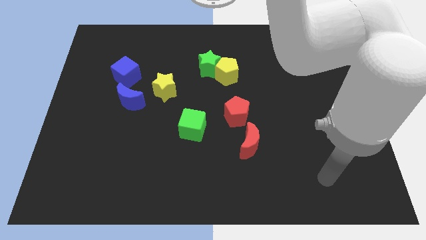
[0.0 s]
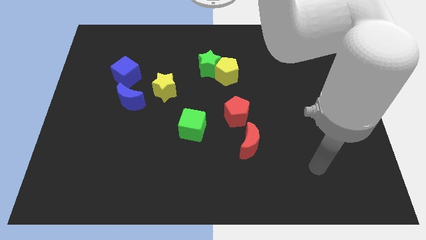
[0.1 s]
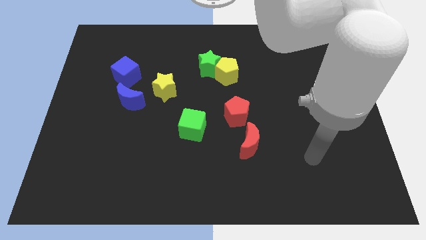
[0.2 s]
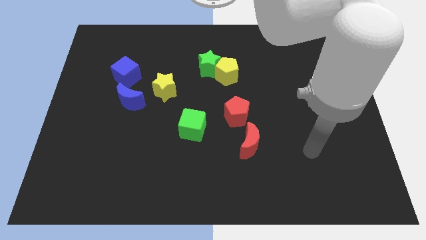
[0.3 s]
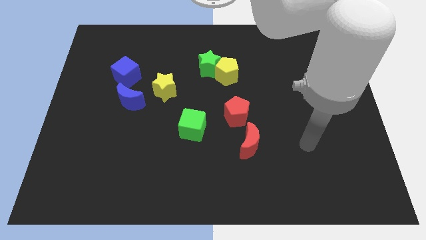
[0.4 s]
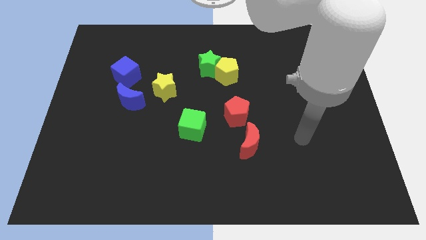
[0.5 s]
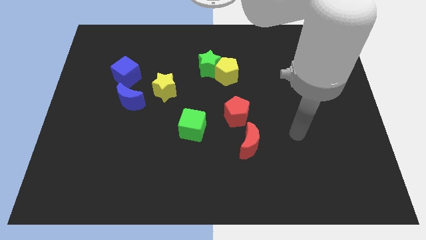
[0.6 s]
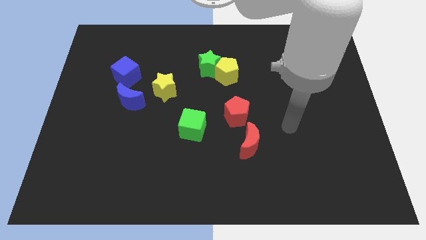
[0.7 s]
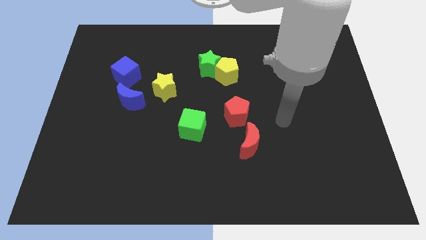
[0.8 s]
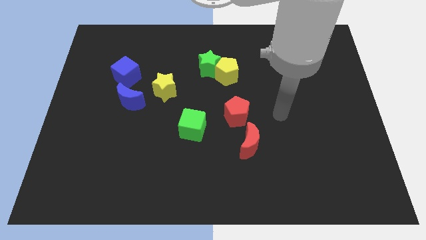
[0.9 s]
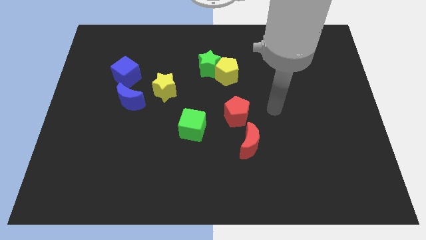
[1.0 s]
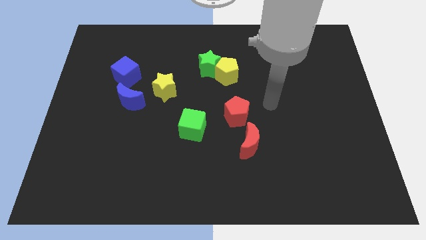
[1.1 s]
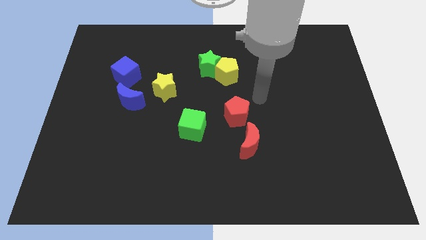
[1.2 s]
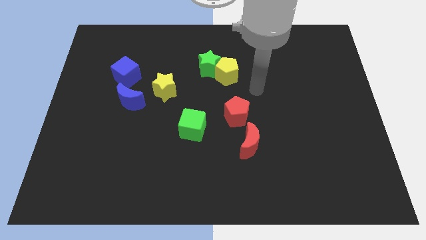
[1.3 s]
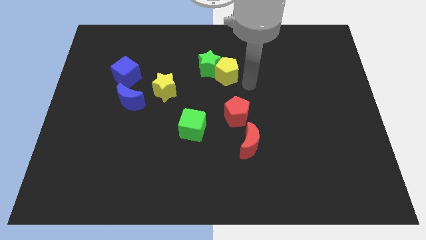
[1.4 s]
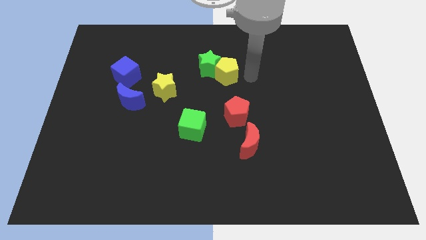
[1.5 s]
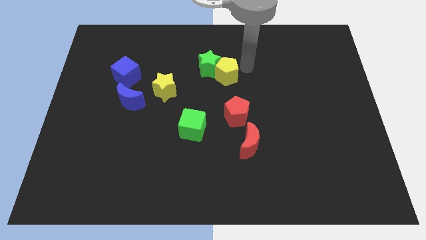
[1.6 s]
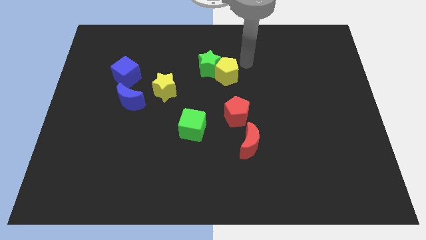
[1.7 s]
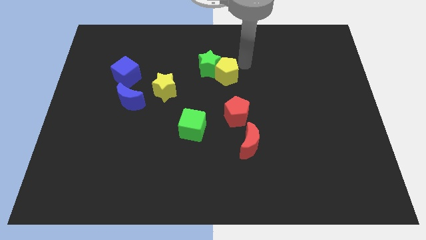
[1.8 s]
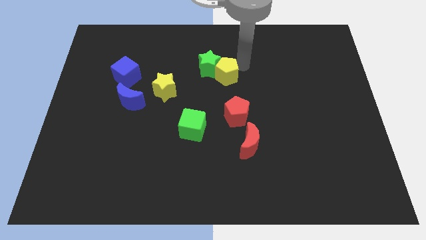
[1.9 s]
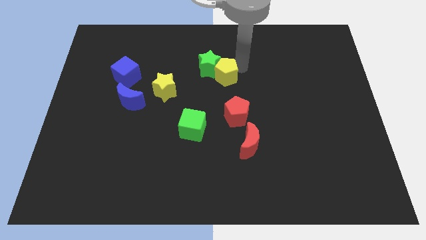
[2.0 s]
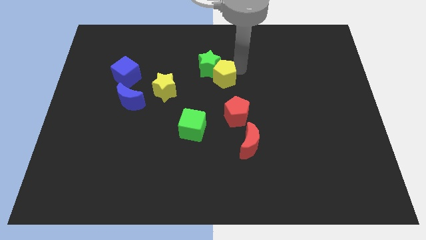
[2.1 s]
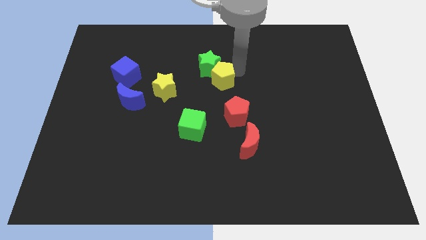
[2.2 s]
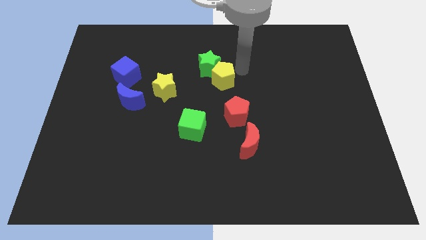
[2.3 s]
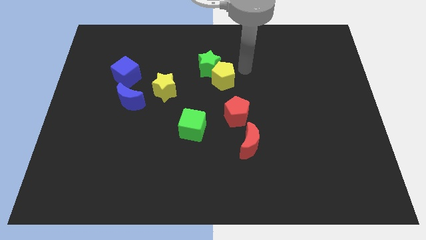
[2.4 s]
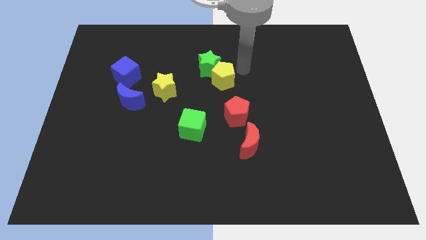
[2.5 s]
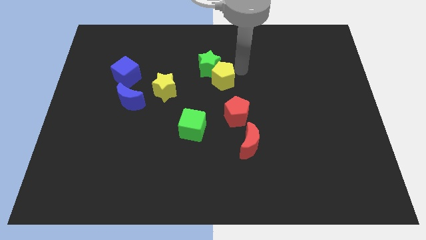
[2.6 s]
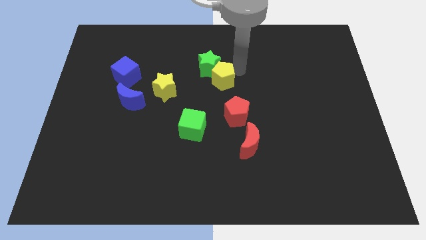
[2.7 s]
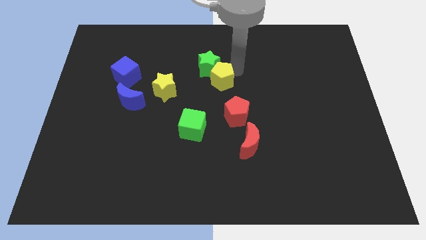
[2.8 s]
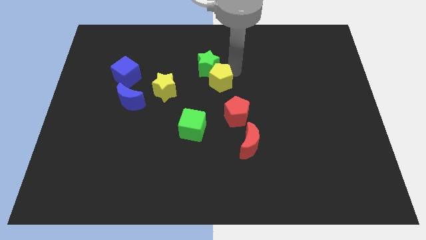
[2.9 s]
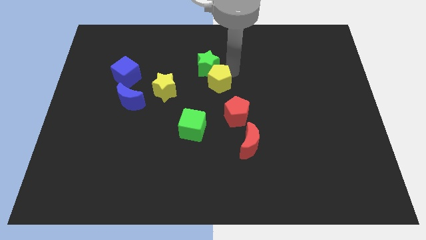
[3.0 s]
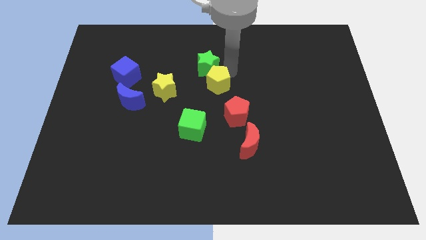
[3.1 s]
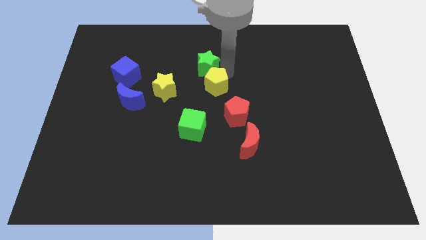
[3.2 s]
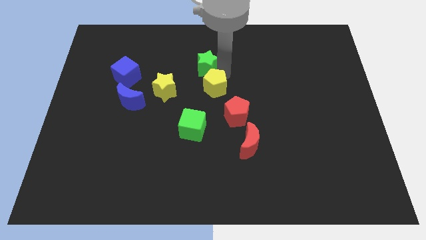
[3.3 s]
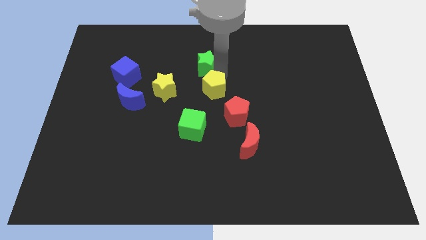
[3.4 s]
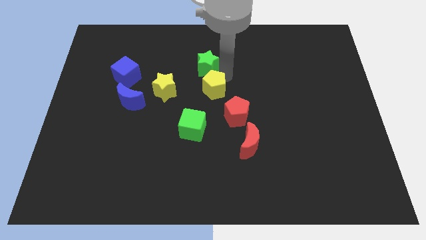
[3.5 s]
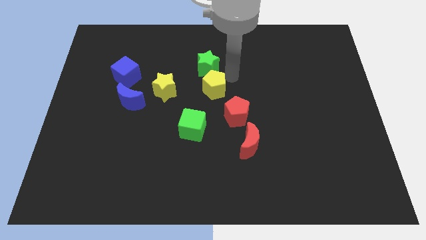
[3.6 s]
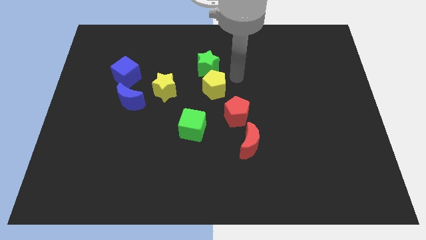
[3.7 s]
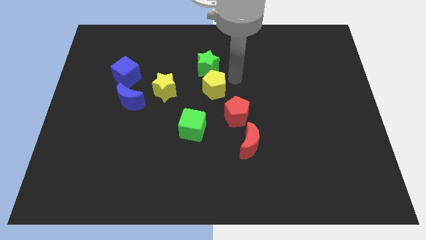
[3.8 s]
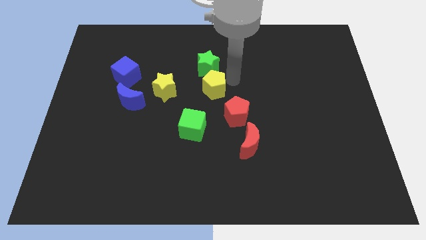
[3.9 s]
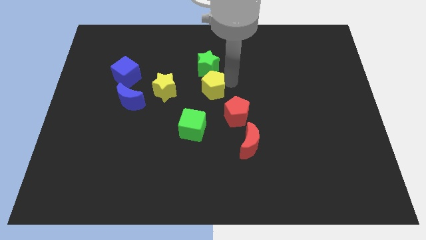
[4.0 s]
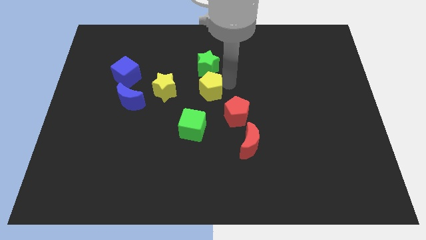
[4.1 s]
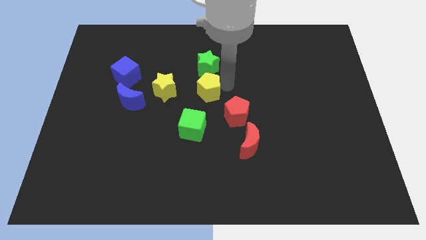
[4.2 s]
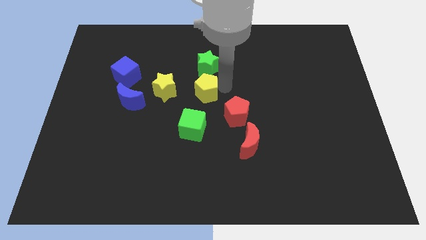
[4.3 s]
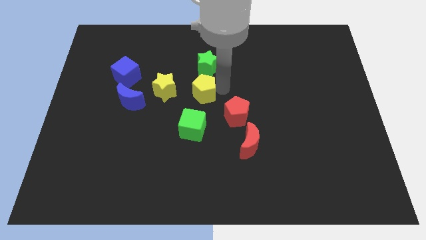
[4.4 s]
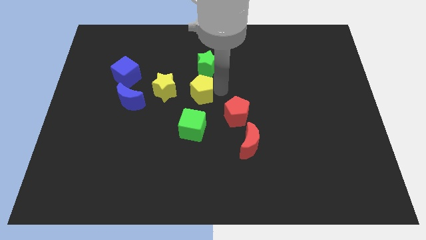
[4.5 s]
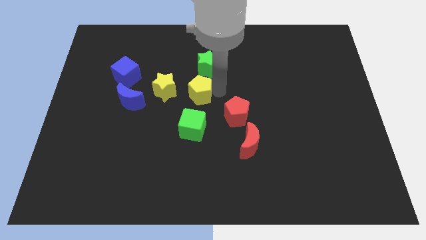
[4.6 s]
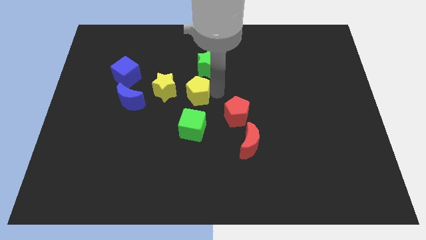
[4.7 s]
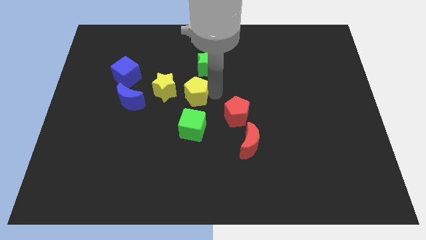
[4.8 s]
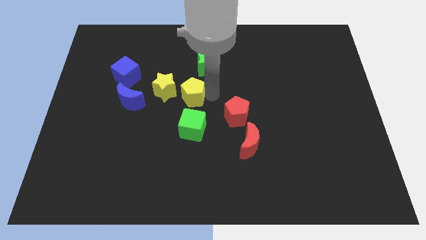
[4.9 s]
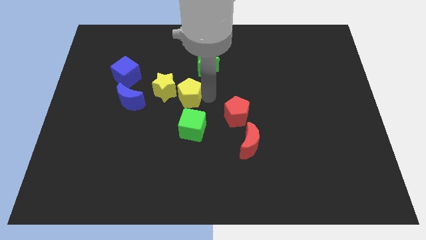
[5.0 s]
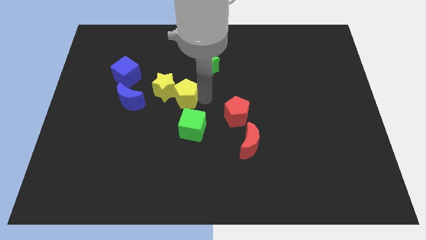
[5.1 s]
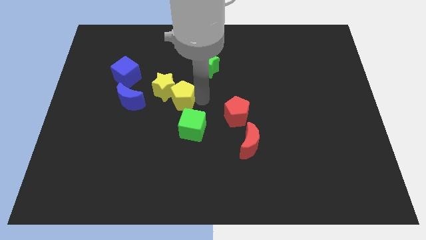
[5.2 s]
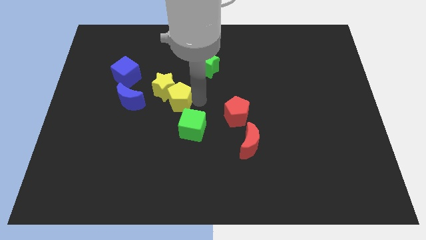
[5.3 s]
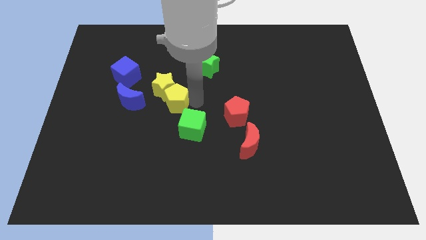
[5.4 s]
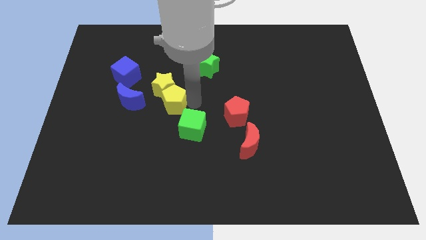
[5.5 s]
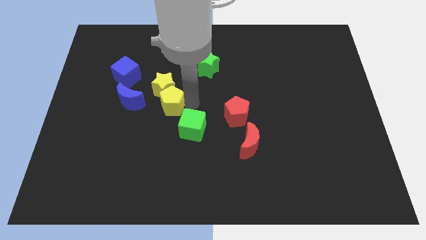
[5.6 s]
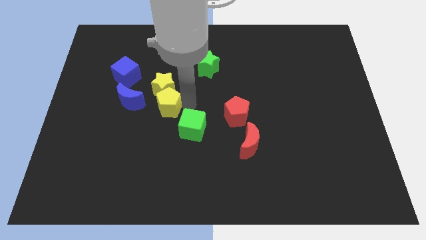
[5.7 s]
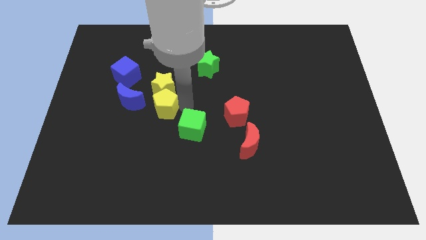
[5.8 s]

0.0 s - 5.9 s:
slide the yellow pentagon diagonally down and to the right of the blue moon

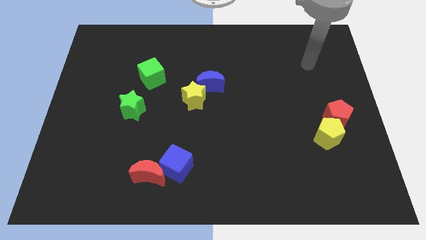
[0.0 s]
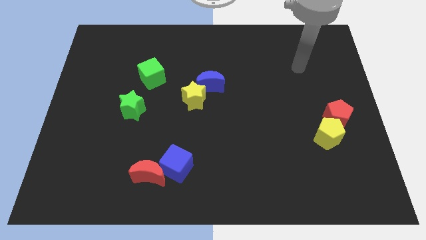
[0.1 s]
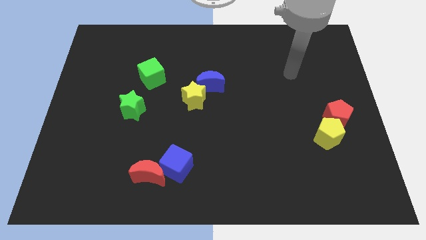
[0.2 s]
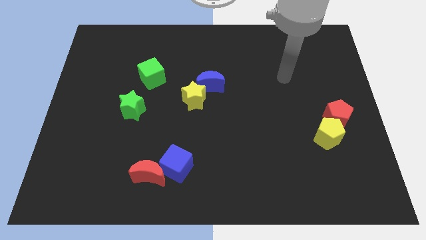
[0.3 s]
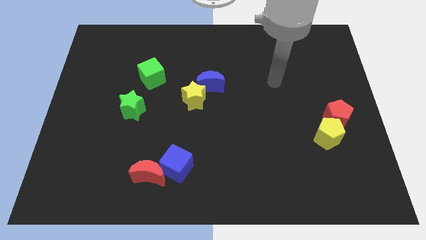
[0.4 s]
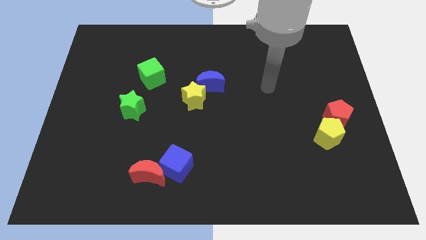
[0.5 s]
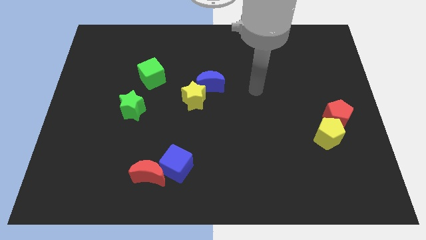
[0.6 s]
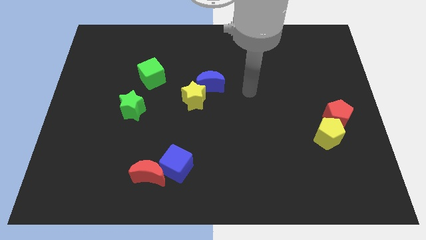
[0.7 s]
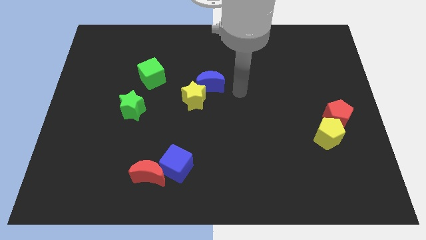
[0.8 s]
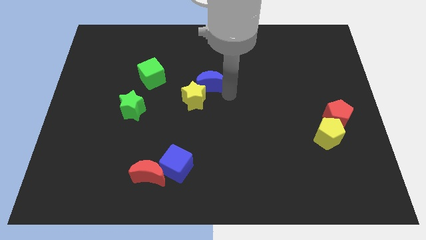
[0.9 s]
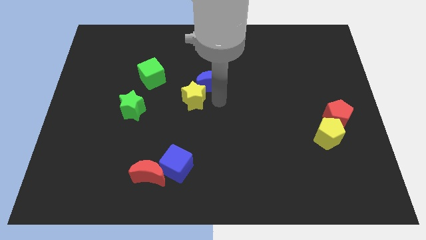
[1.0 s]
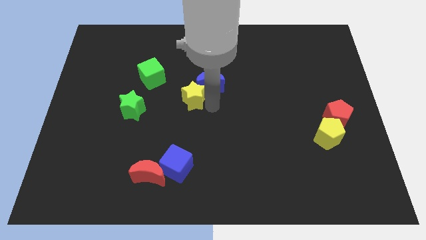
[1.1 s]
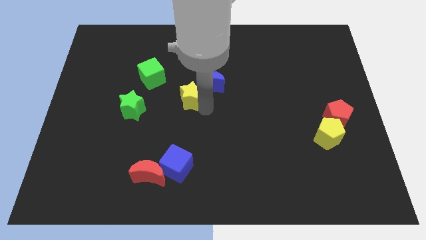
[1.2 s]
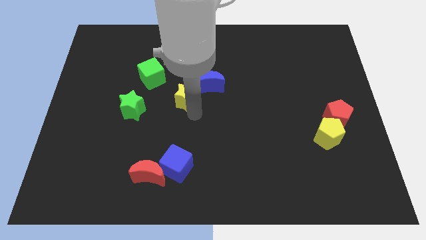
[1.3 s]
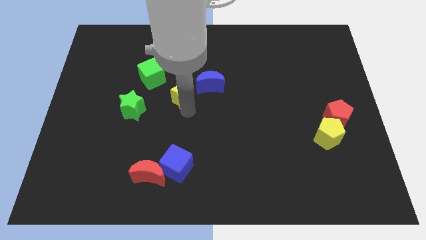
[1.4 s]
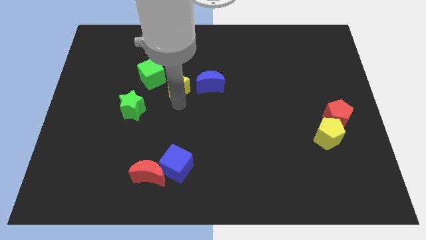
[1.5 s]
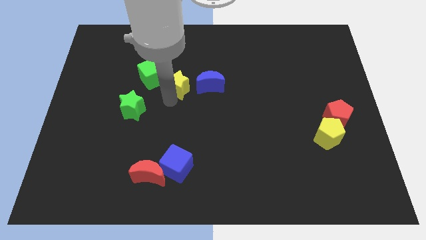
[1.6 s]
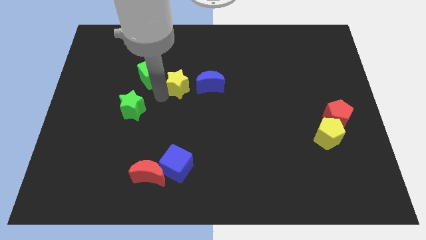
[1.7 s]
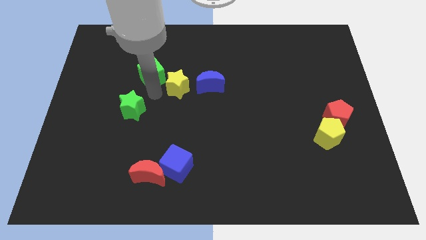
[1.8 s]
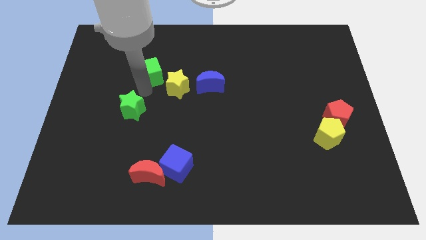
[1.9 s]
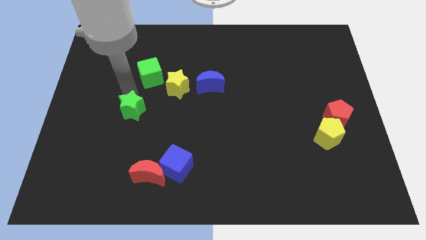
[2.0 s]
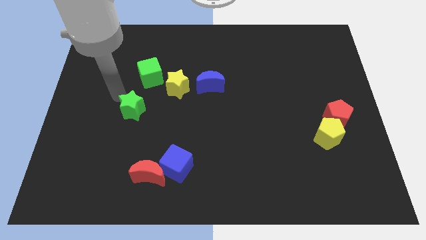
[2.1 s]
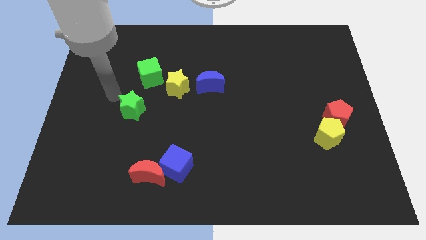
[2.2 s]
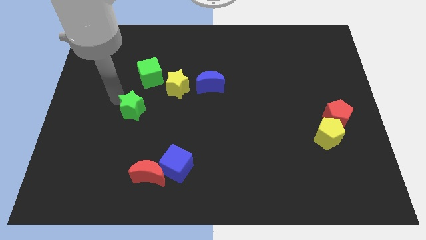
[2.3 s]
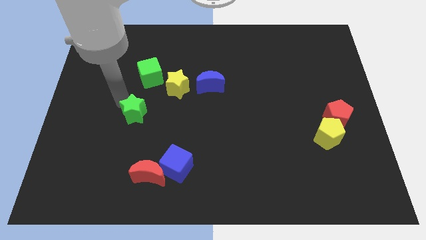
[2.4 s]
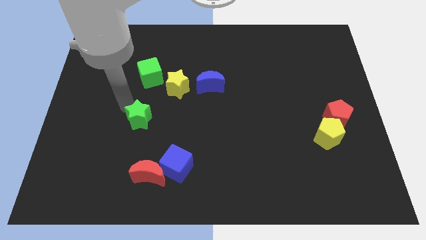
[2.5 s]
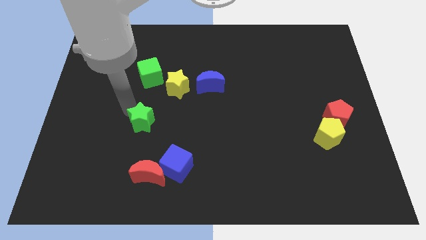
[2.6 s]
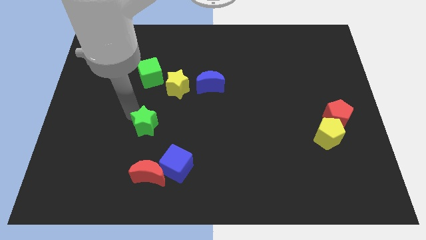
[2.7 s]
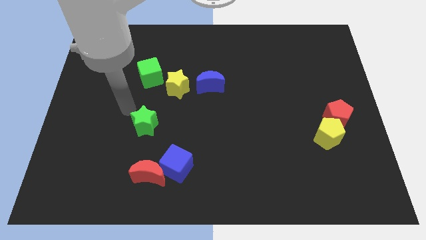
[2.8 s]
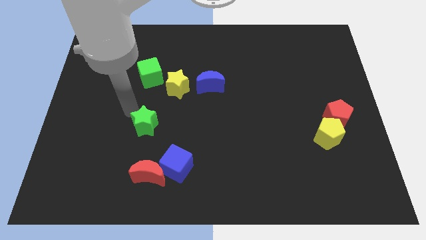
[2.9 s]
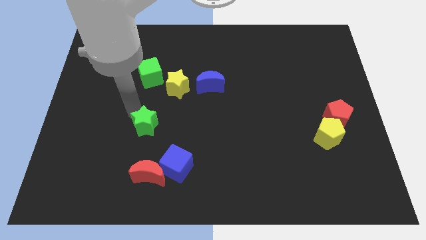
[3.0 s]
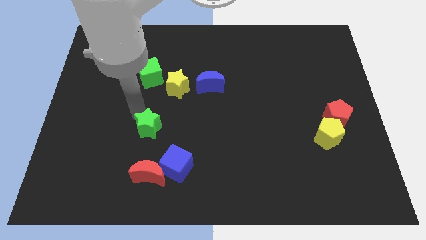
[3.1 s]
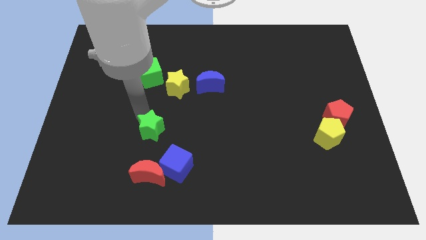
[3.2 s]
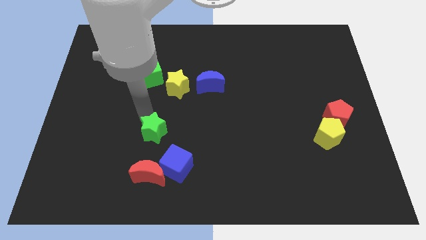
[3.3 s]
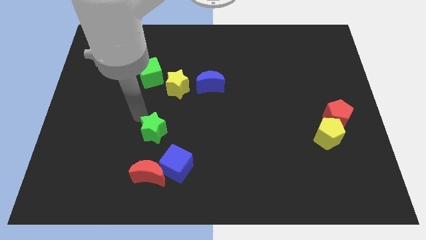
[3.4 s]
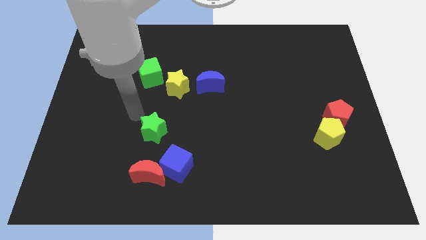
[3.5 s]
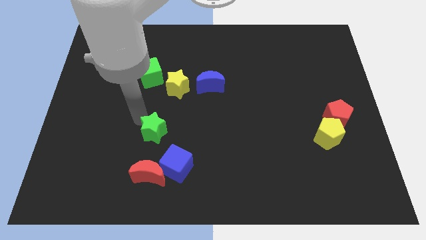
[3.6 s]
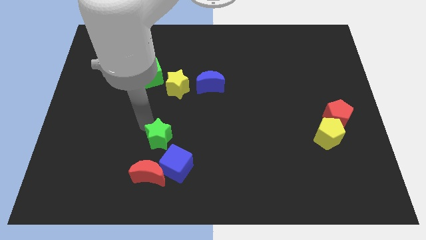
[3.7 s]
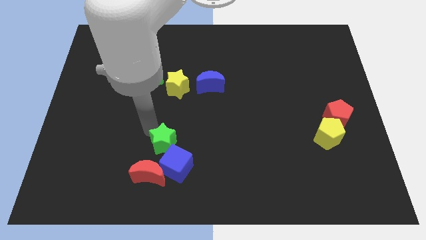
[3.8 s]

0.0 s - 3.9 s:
move the green star diagonally up and to the right of the red moon
